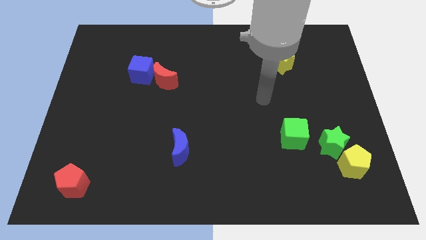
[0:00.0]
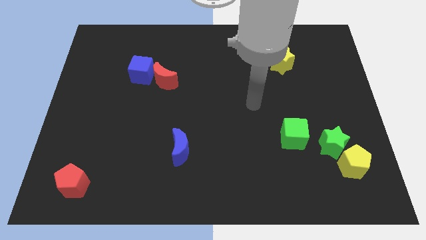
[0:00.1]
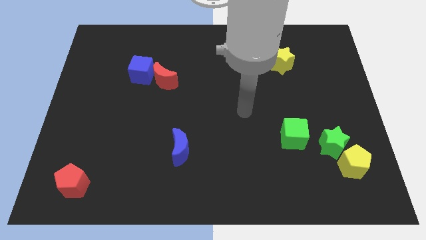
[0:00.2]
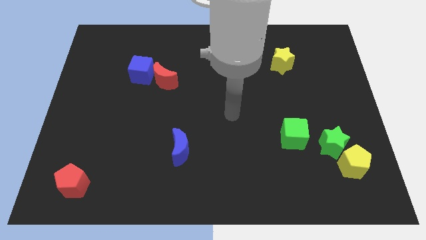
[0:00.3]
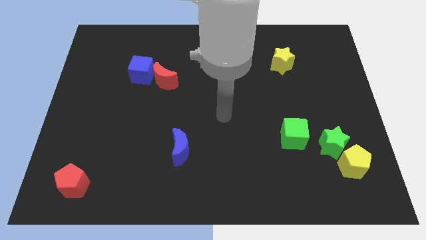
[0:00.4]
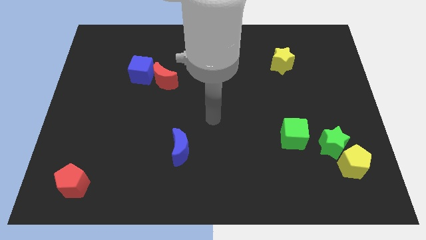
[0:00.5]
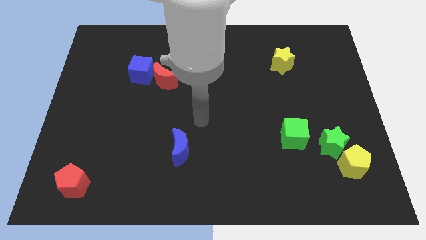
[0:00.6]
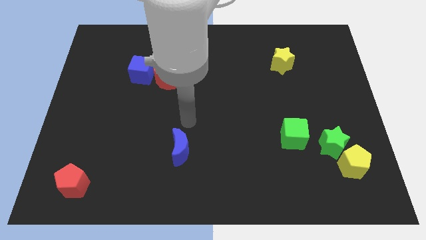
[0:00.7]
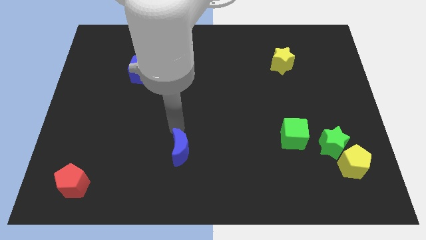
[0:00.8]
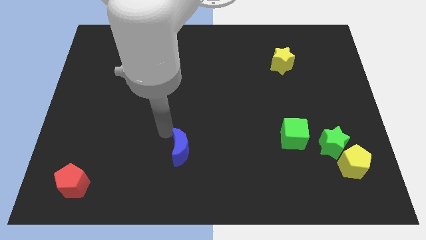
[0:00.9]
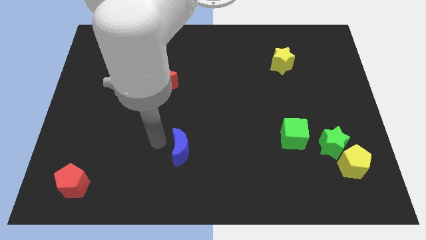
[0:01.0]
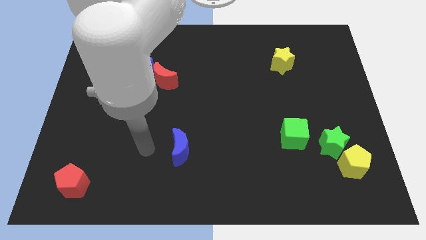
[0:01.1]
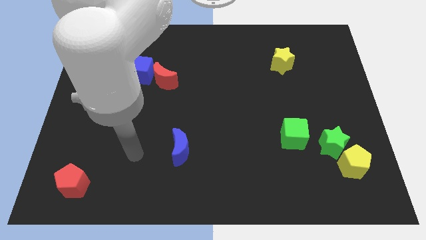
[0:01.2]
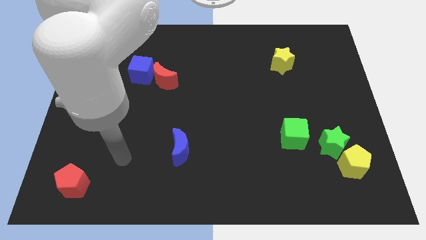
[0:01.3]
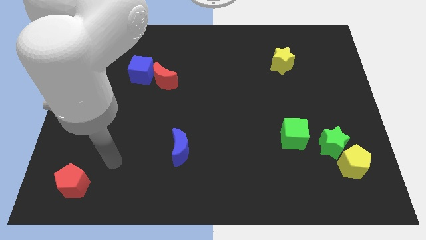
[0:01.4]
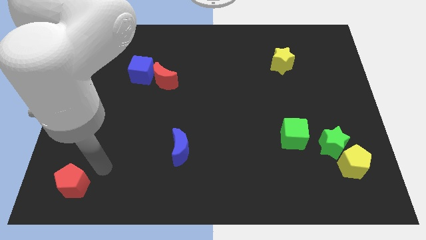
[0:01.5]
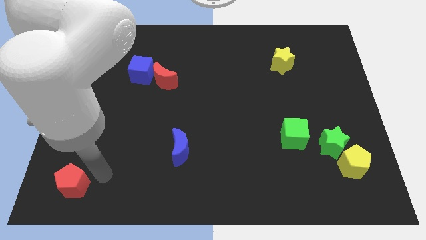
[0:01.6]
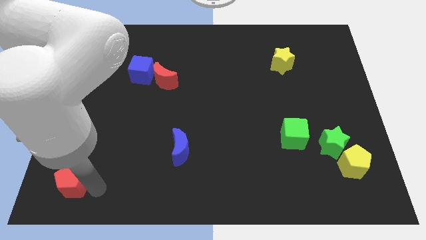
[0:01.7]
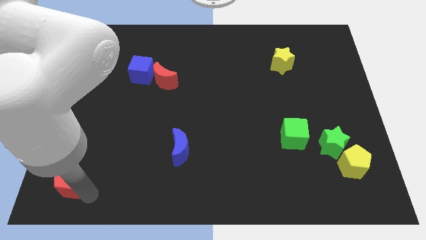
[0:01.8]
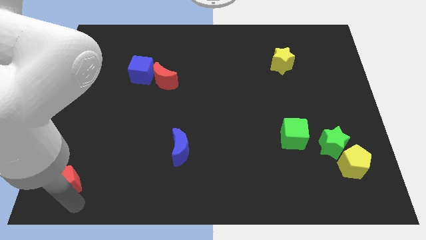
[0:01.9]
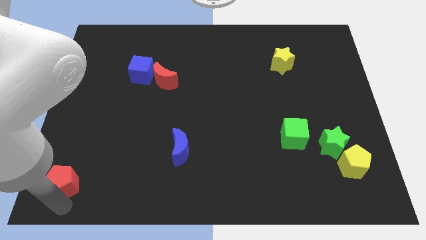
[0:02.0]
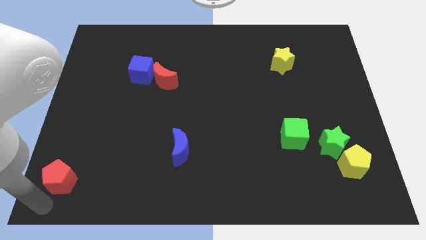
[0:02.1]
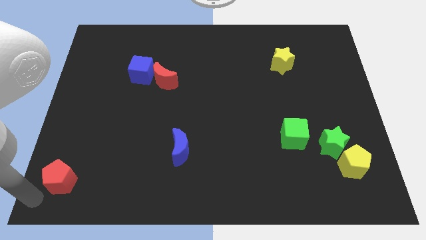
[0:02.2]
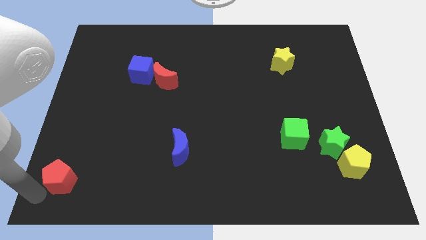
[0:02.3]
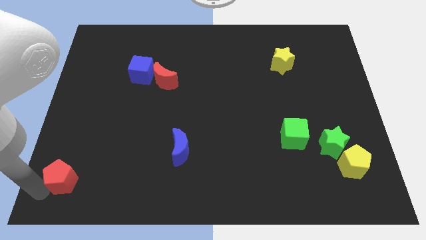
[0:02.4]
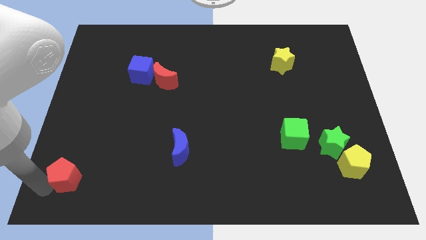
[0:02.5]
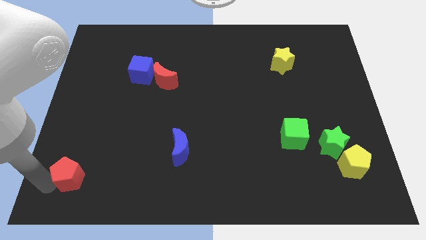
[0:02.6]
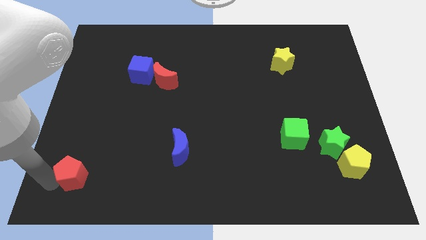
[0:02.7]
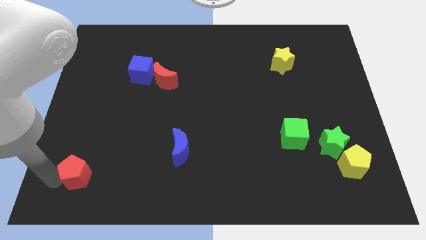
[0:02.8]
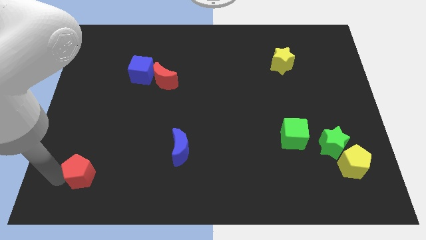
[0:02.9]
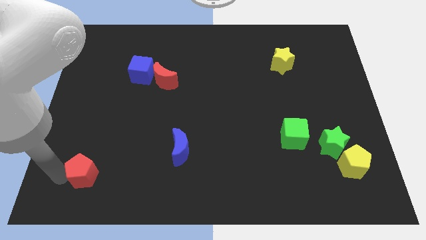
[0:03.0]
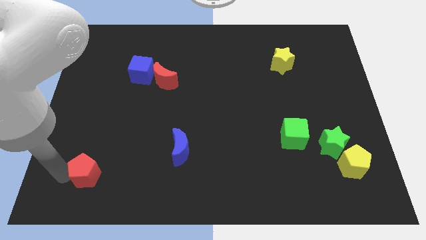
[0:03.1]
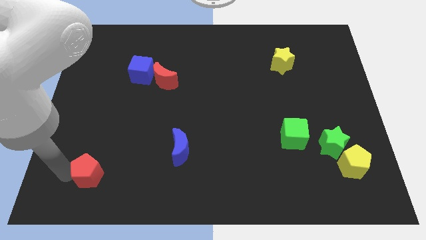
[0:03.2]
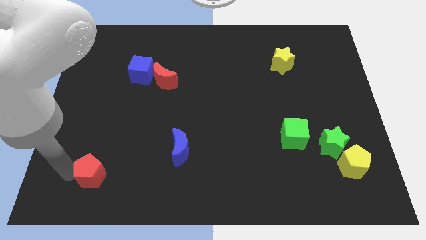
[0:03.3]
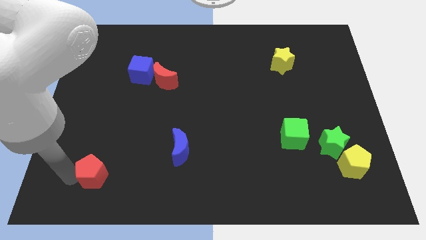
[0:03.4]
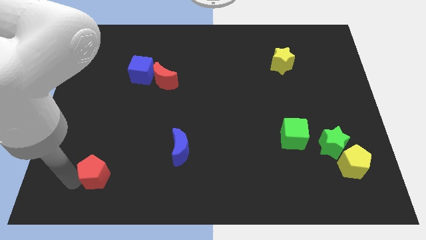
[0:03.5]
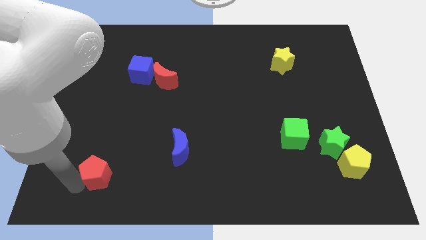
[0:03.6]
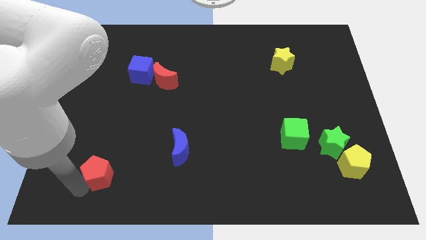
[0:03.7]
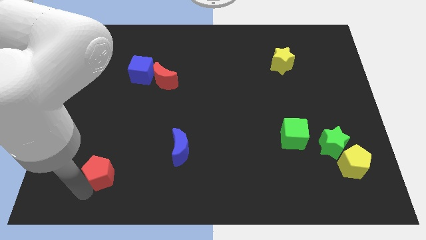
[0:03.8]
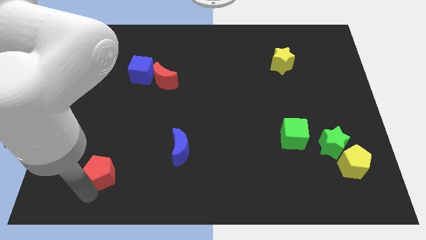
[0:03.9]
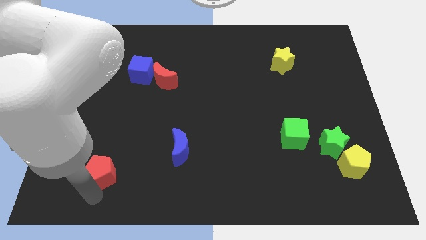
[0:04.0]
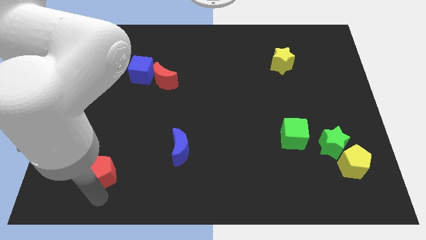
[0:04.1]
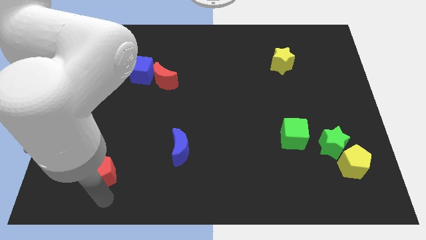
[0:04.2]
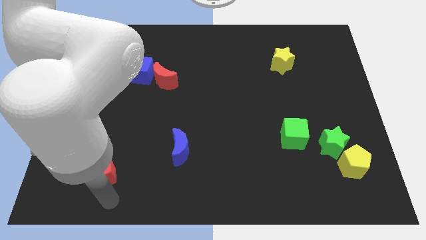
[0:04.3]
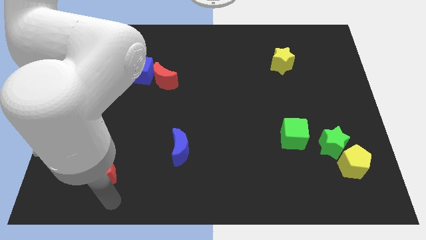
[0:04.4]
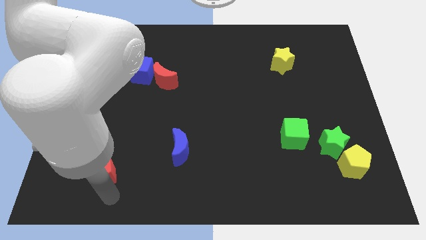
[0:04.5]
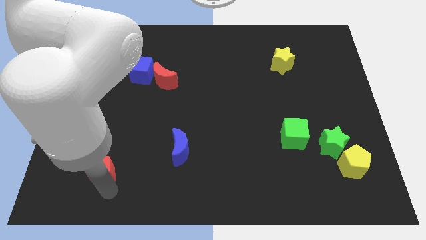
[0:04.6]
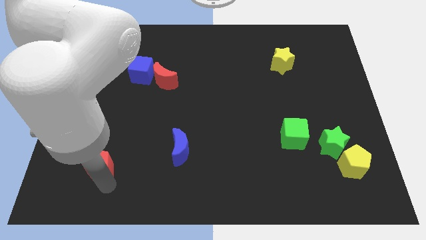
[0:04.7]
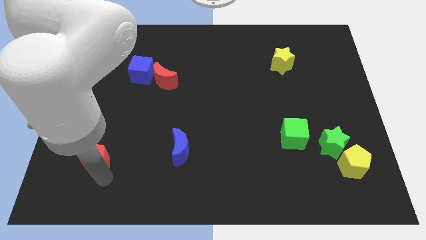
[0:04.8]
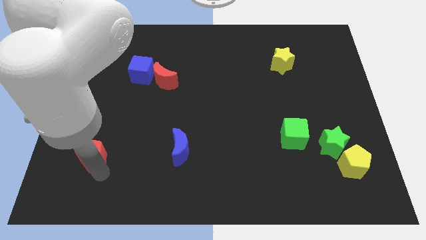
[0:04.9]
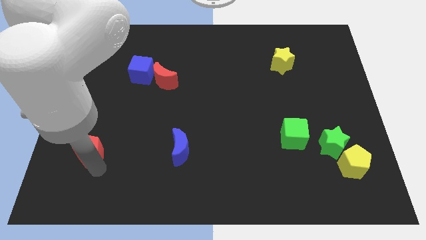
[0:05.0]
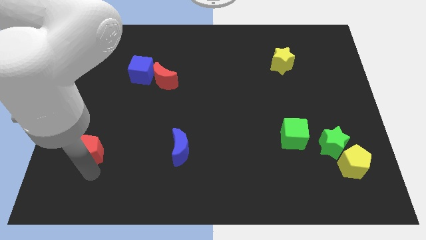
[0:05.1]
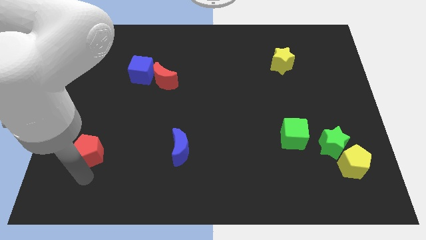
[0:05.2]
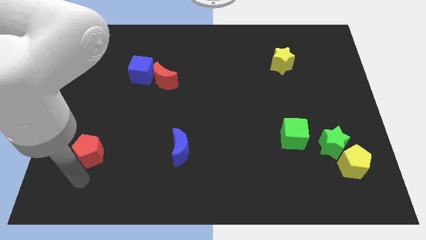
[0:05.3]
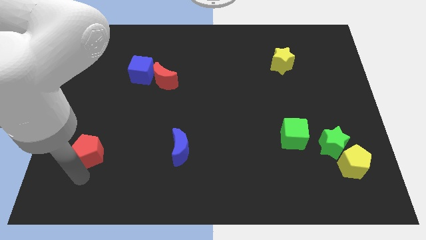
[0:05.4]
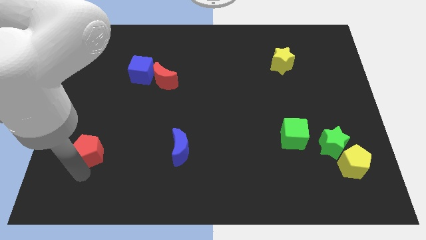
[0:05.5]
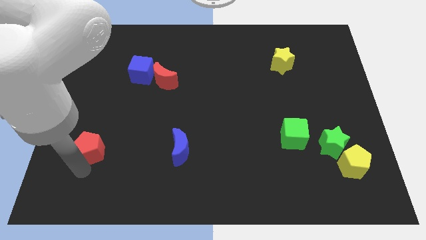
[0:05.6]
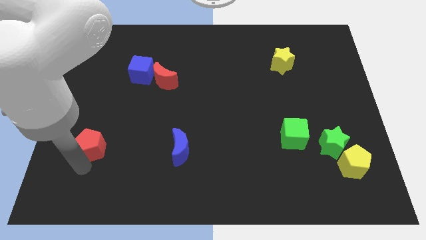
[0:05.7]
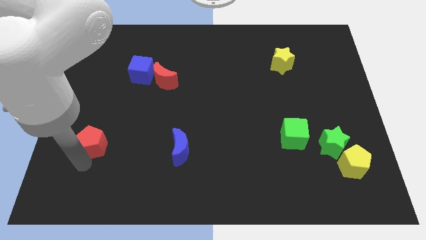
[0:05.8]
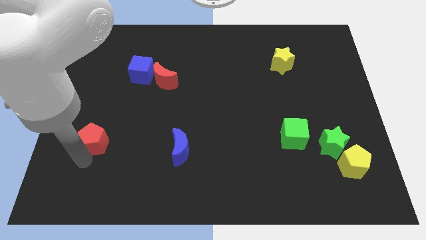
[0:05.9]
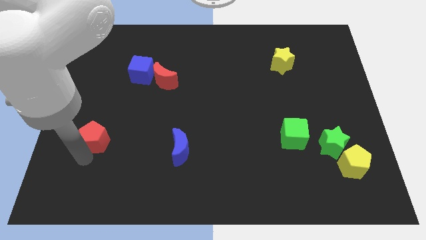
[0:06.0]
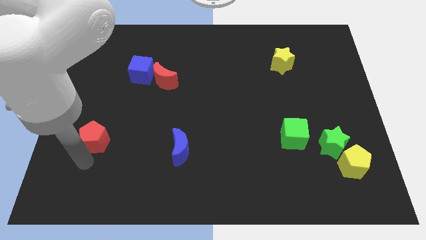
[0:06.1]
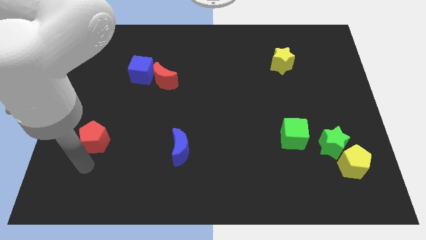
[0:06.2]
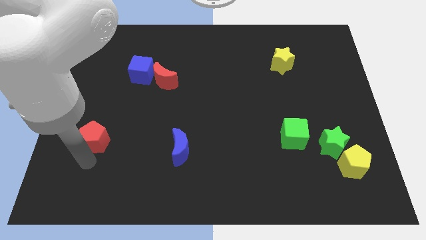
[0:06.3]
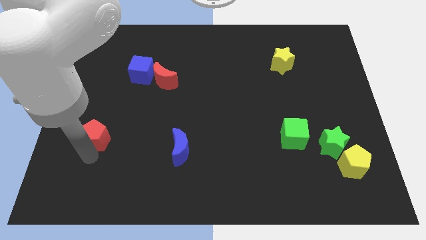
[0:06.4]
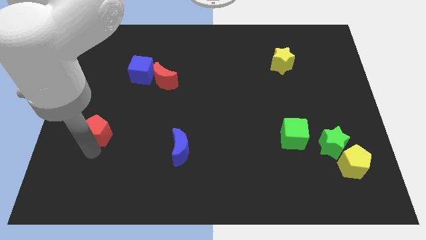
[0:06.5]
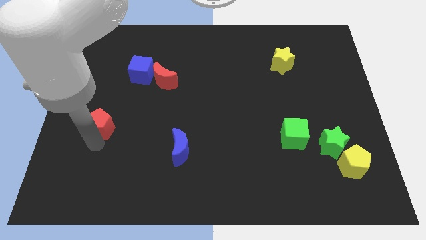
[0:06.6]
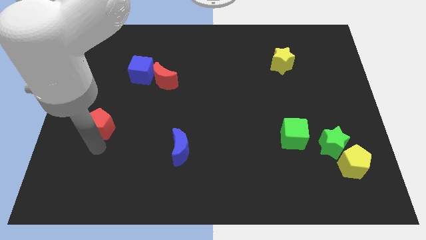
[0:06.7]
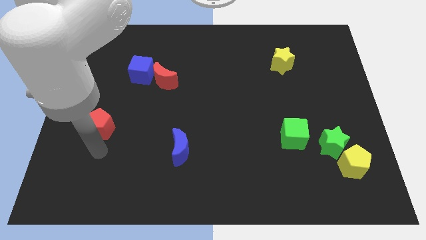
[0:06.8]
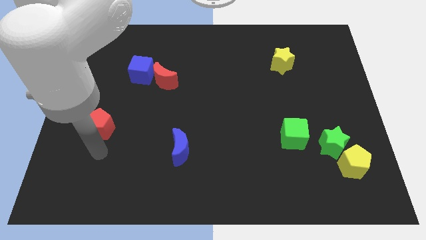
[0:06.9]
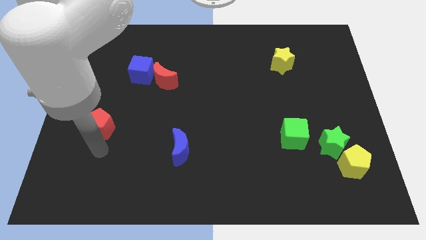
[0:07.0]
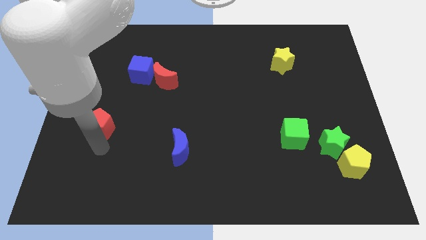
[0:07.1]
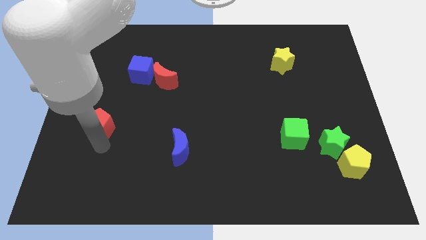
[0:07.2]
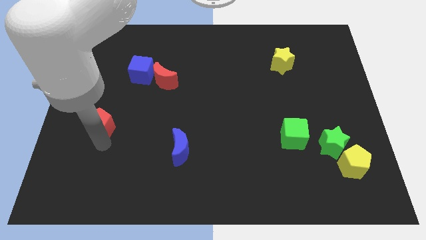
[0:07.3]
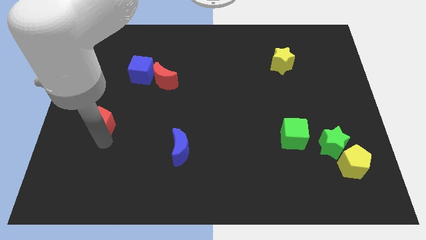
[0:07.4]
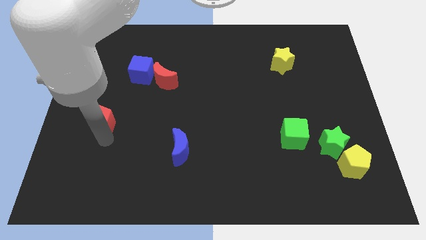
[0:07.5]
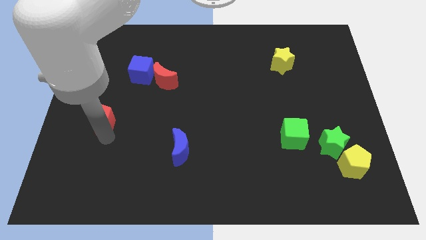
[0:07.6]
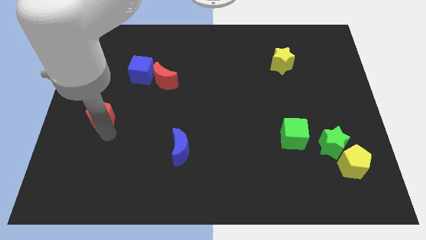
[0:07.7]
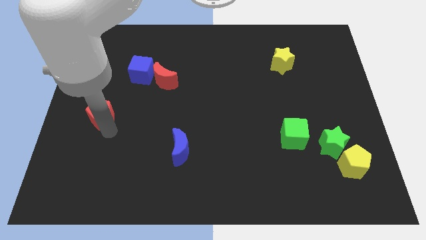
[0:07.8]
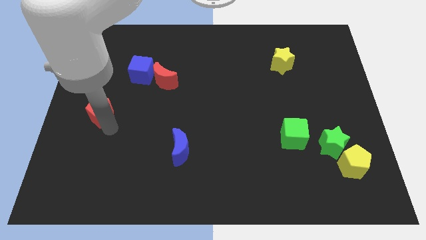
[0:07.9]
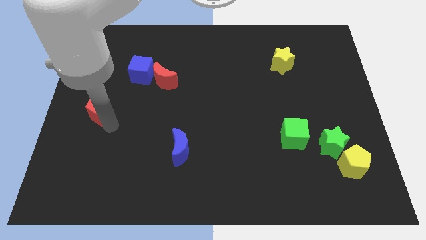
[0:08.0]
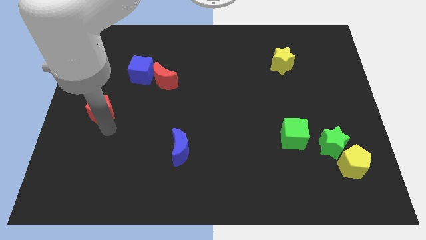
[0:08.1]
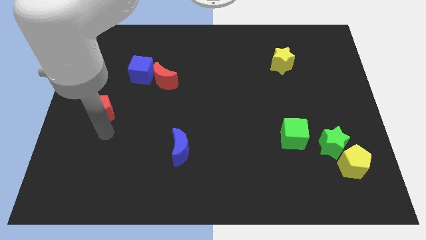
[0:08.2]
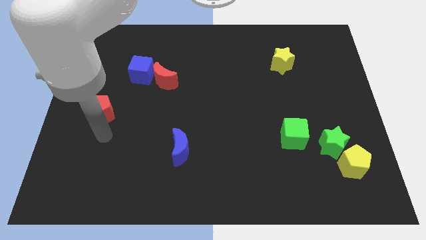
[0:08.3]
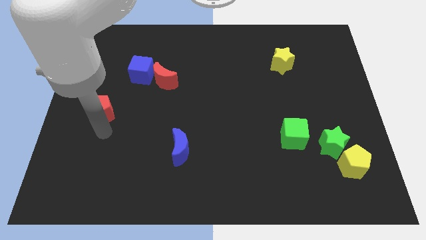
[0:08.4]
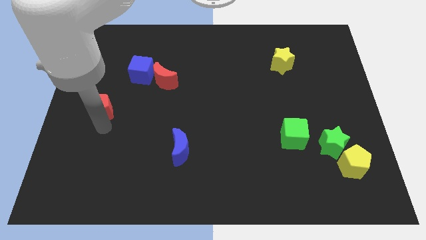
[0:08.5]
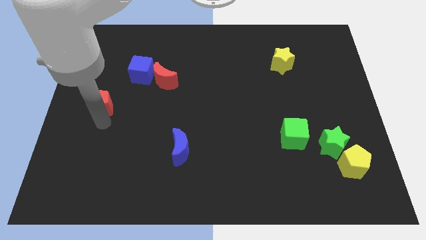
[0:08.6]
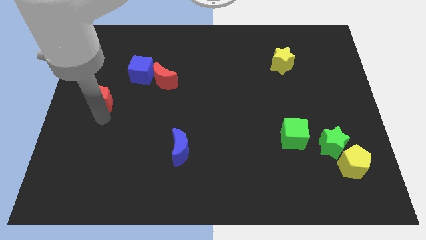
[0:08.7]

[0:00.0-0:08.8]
move the red pentagon upwards
